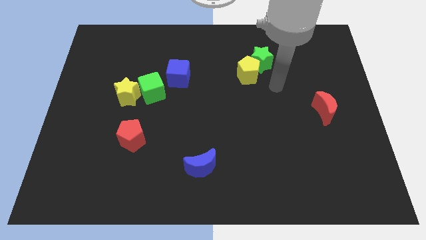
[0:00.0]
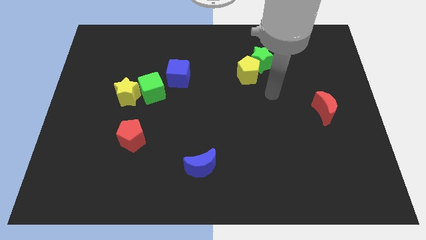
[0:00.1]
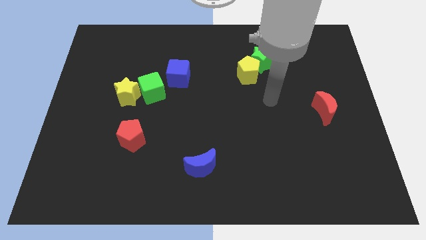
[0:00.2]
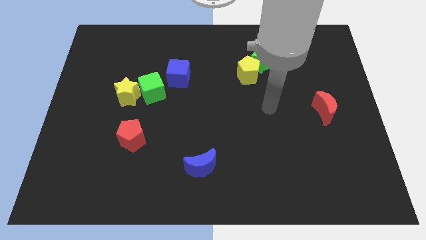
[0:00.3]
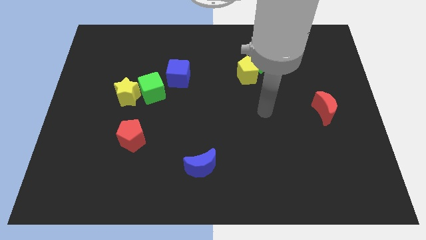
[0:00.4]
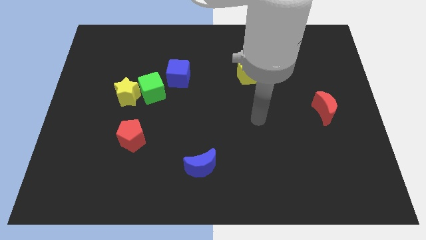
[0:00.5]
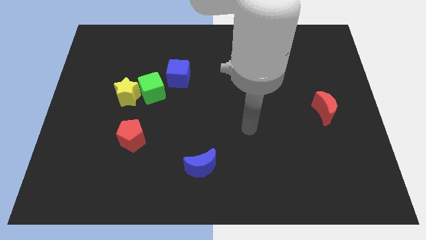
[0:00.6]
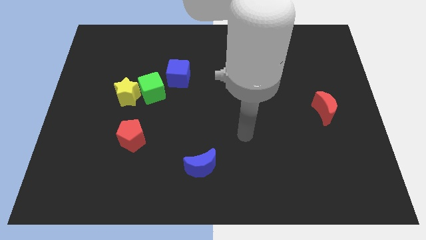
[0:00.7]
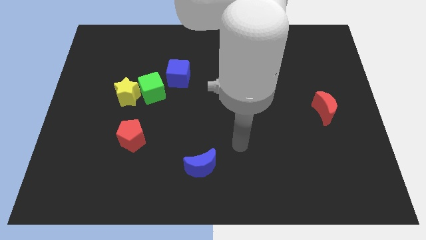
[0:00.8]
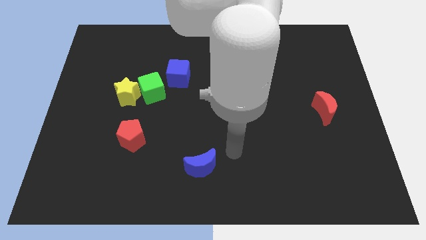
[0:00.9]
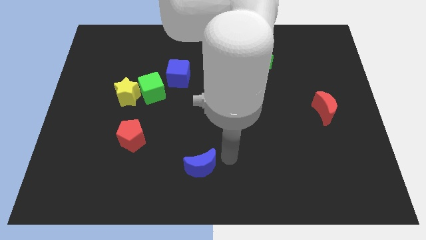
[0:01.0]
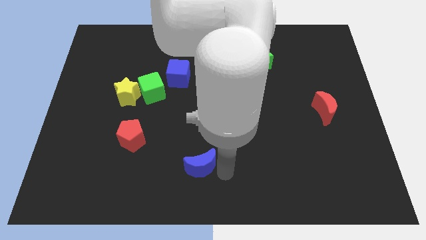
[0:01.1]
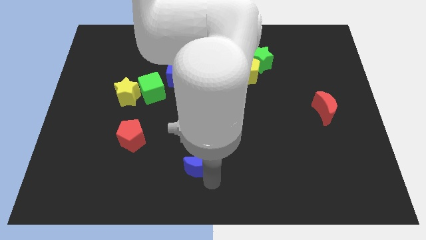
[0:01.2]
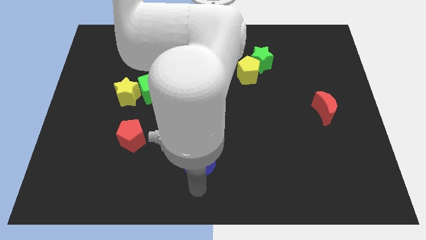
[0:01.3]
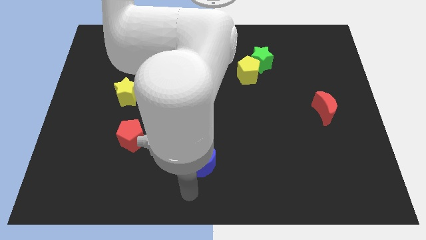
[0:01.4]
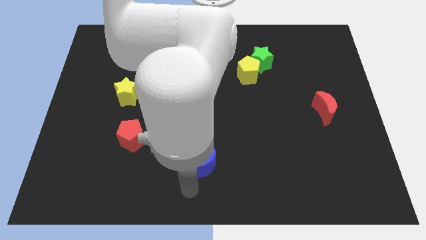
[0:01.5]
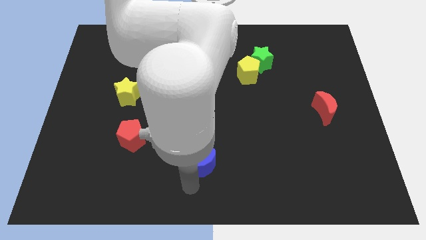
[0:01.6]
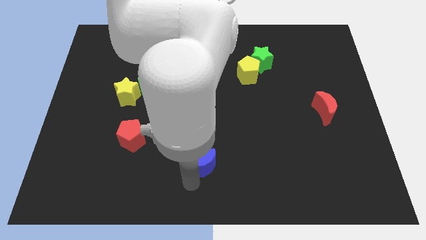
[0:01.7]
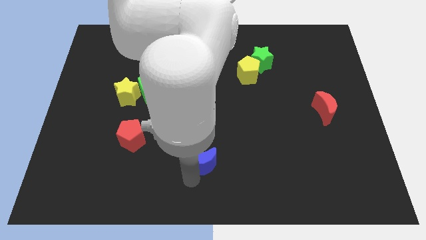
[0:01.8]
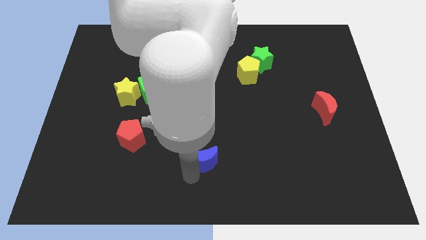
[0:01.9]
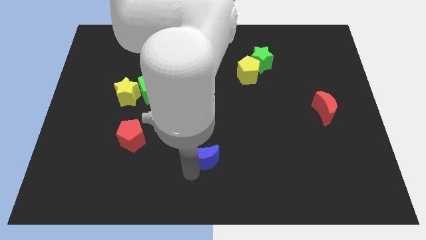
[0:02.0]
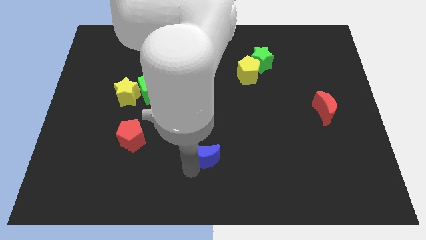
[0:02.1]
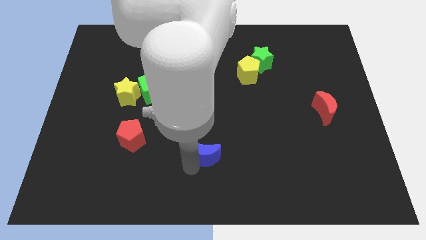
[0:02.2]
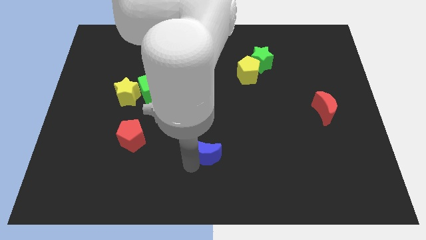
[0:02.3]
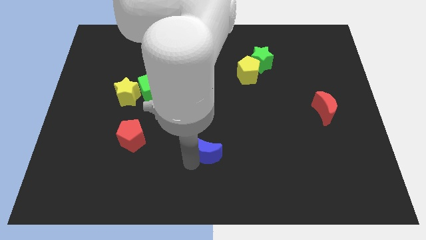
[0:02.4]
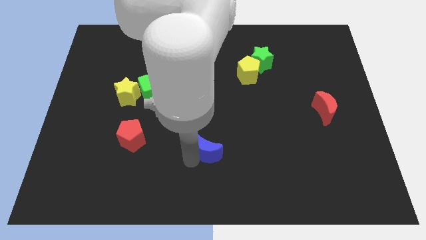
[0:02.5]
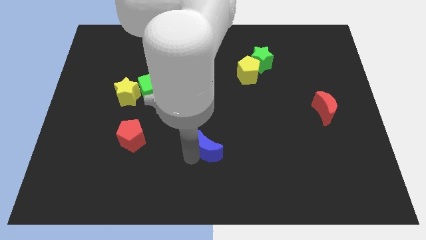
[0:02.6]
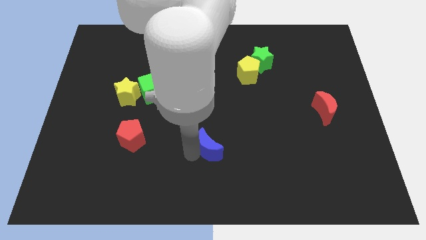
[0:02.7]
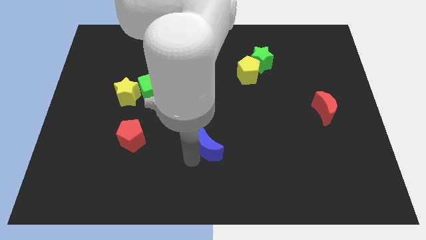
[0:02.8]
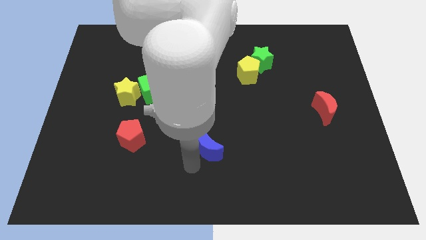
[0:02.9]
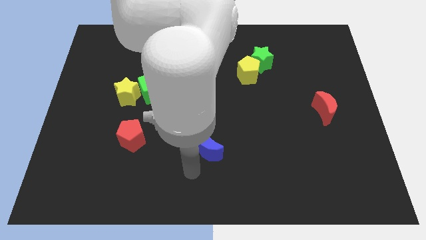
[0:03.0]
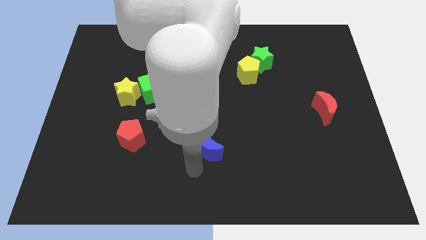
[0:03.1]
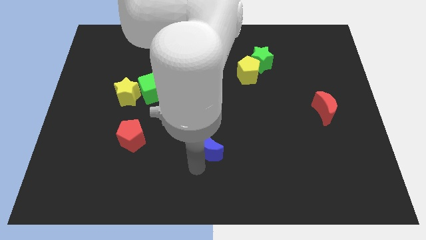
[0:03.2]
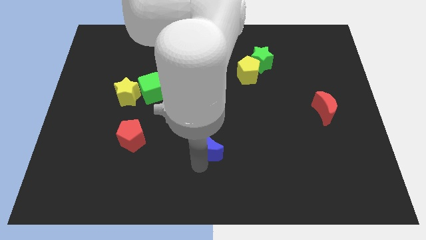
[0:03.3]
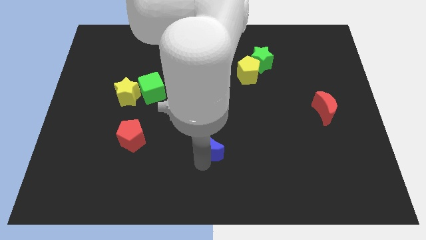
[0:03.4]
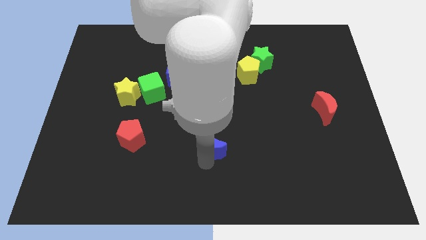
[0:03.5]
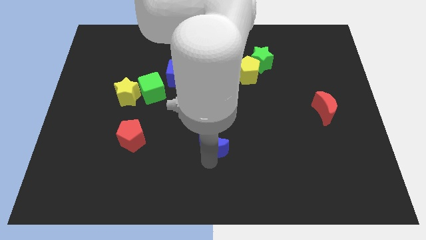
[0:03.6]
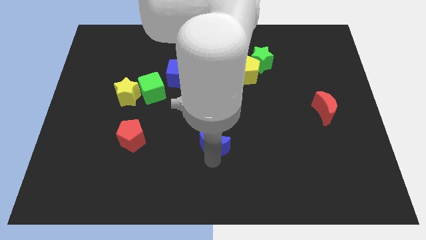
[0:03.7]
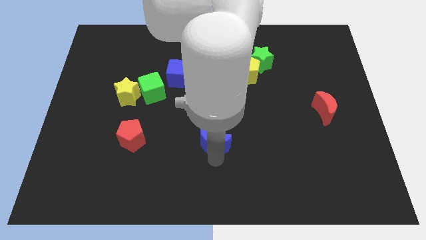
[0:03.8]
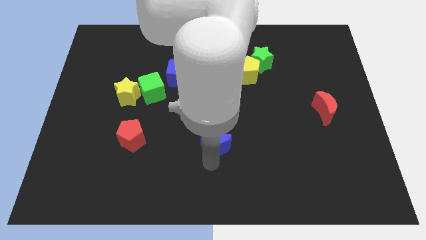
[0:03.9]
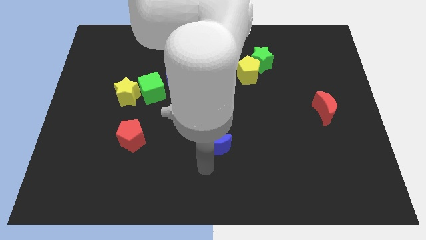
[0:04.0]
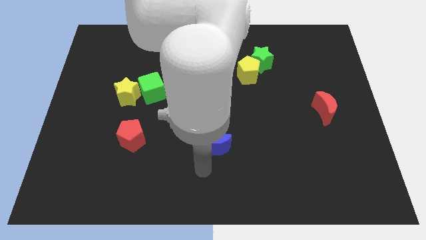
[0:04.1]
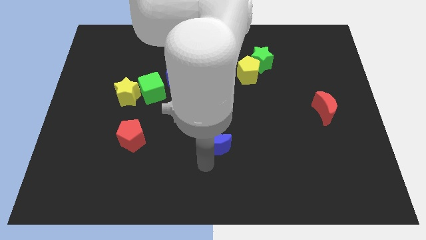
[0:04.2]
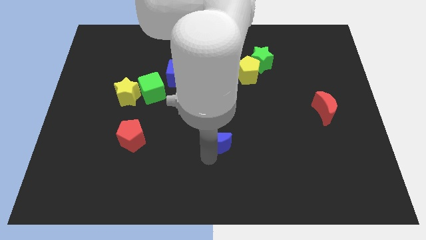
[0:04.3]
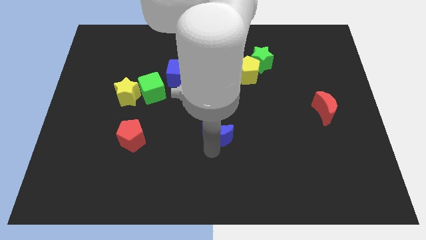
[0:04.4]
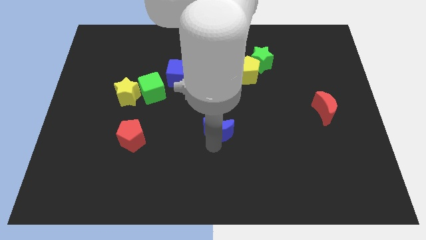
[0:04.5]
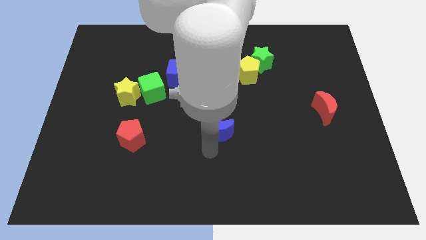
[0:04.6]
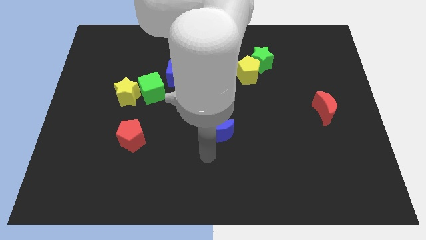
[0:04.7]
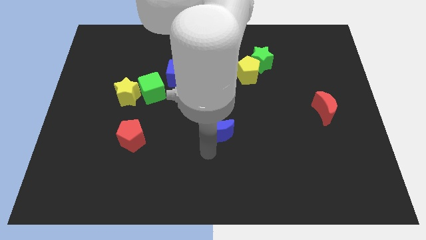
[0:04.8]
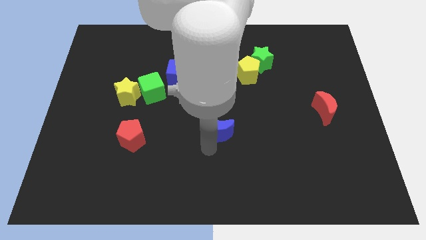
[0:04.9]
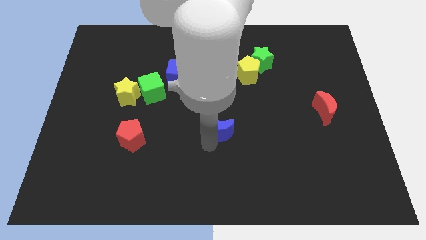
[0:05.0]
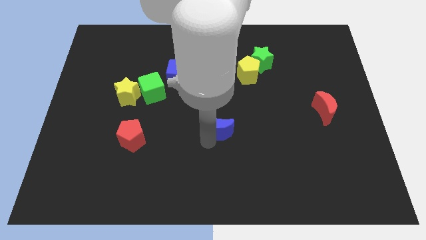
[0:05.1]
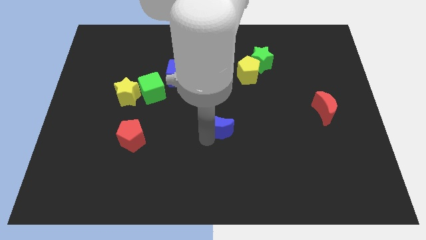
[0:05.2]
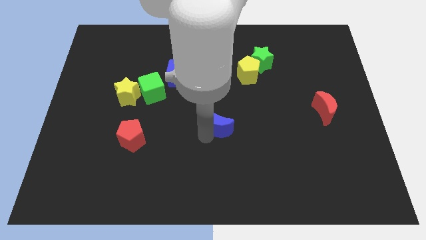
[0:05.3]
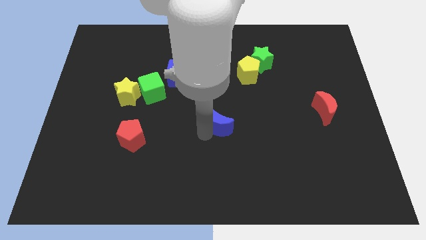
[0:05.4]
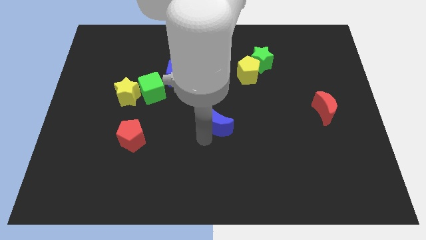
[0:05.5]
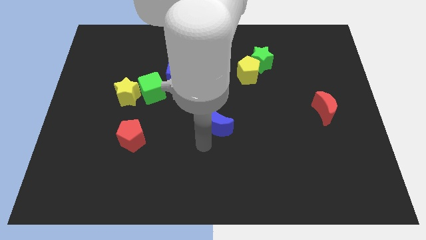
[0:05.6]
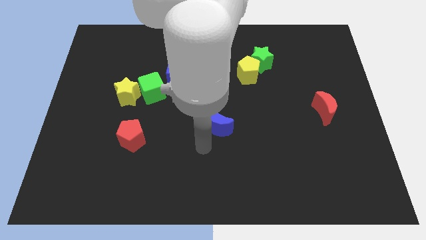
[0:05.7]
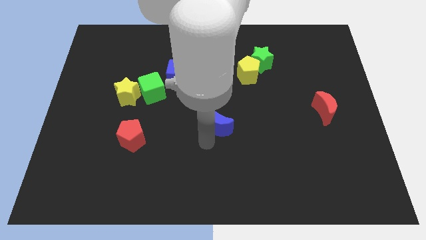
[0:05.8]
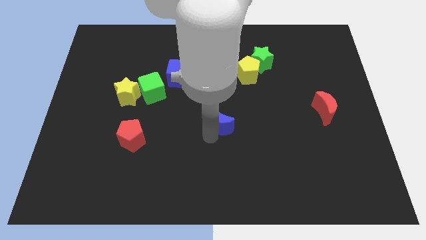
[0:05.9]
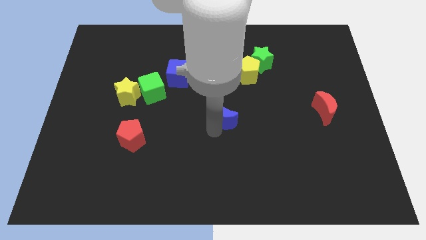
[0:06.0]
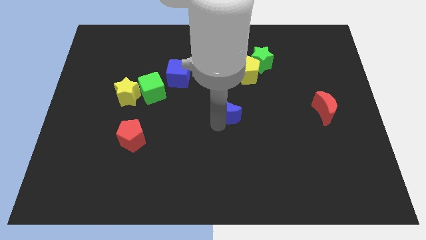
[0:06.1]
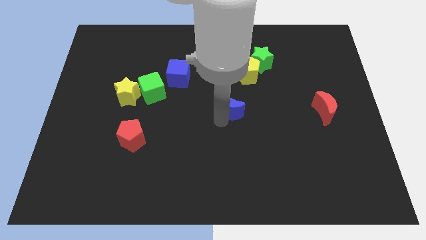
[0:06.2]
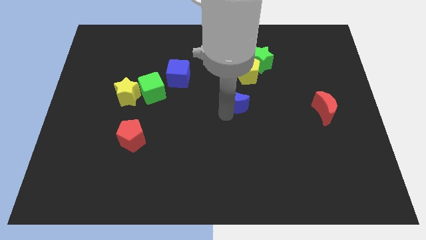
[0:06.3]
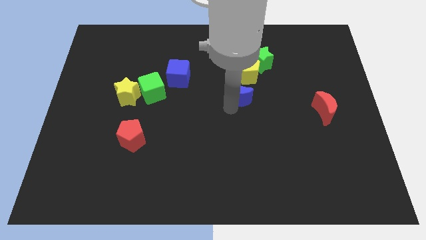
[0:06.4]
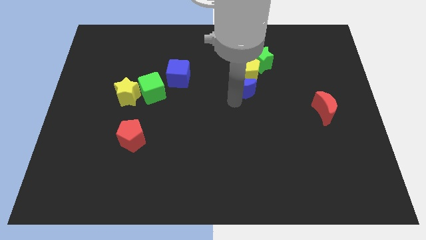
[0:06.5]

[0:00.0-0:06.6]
slide the blue moon towards the yellow pentagon
